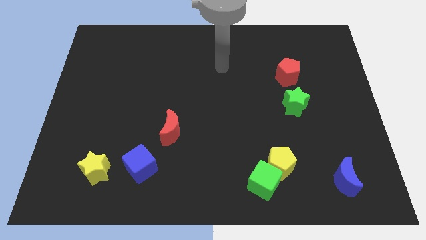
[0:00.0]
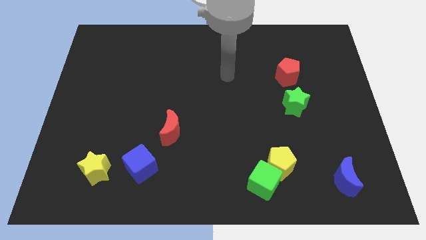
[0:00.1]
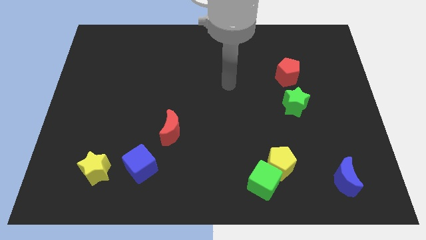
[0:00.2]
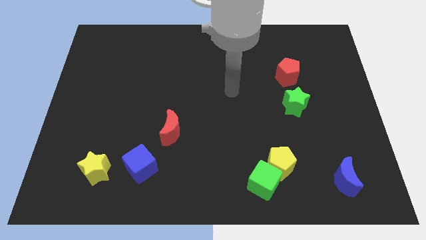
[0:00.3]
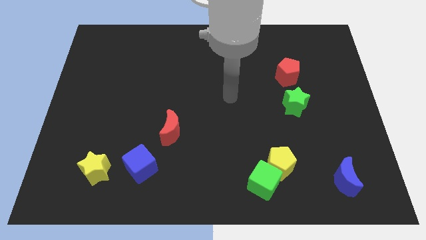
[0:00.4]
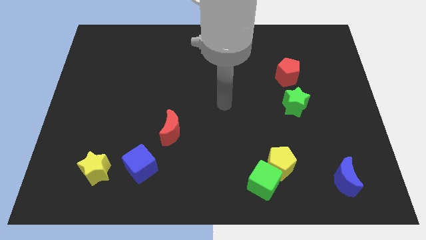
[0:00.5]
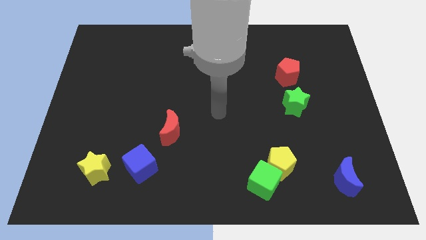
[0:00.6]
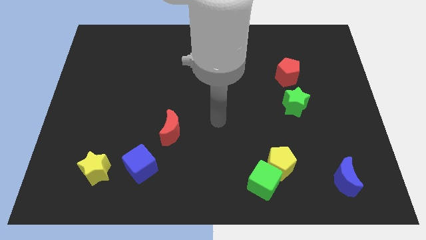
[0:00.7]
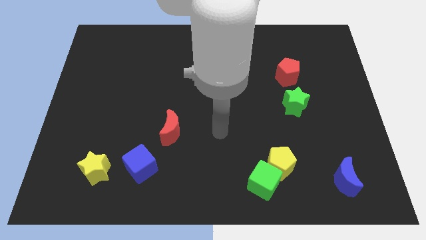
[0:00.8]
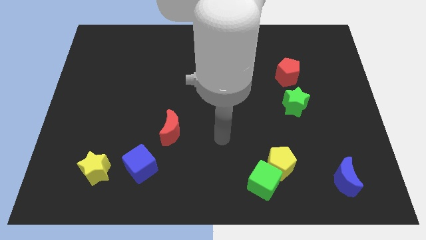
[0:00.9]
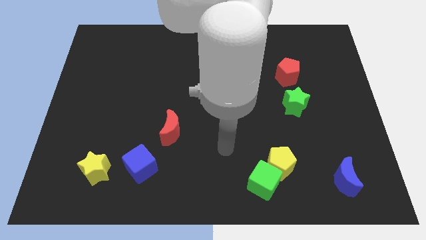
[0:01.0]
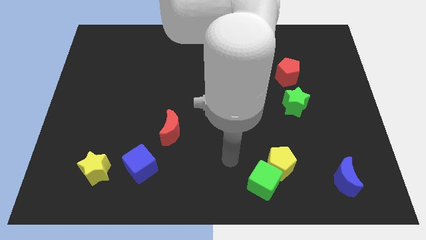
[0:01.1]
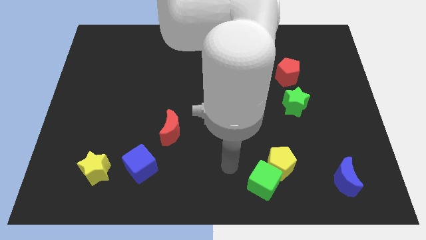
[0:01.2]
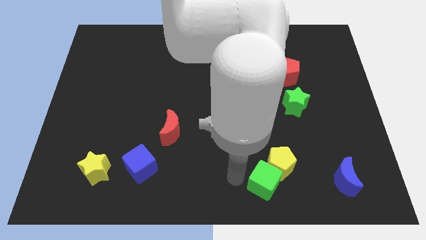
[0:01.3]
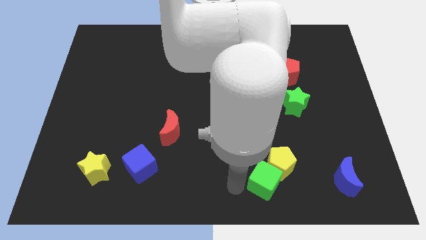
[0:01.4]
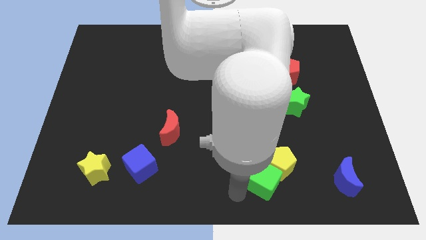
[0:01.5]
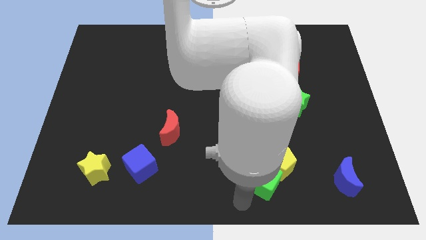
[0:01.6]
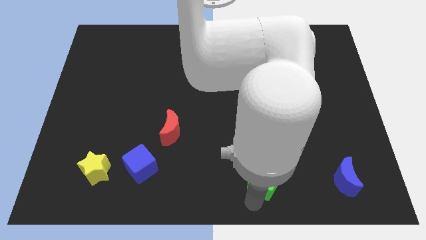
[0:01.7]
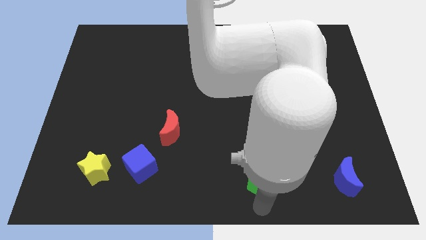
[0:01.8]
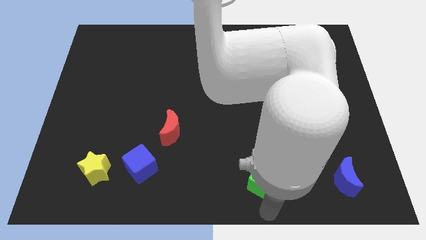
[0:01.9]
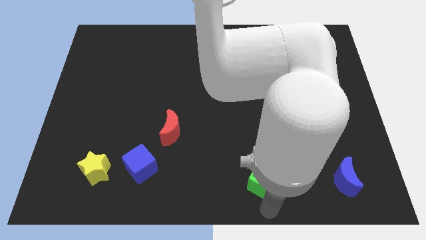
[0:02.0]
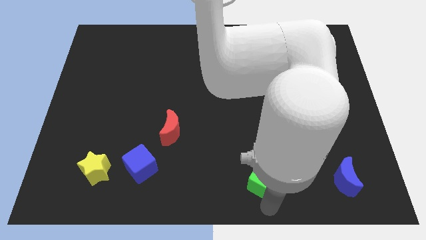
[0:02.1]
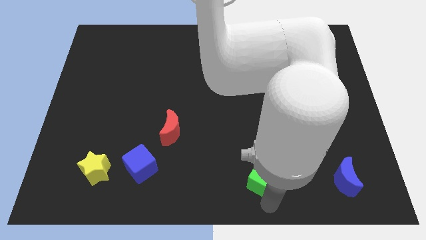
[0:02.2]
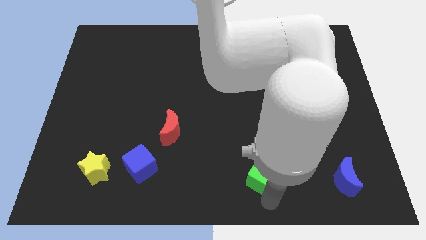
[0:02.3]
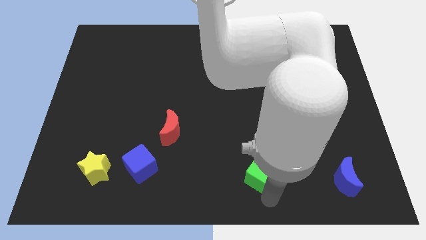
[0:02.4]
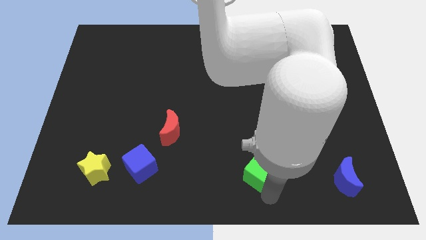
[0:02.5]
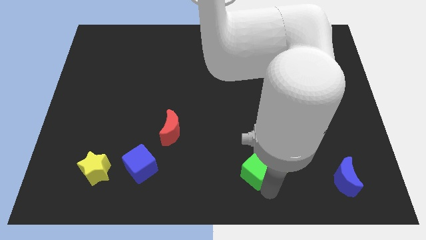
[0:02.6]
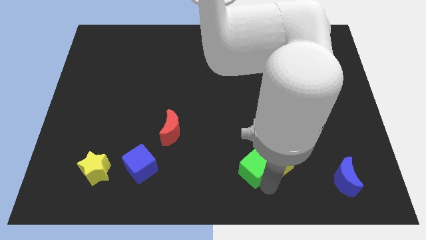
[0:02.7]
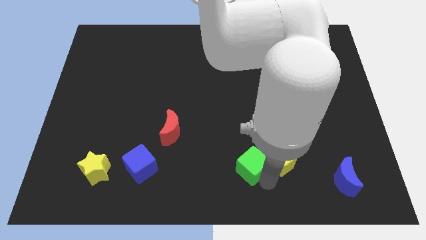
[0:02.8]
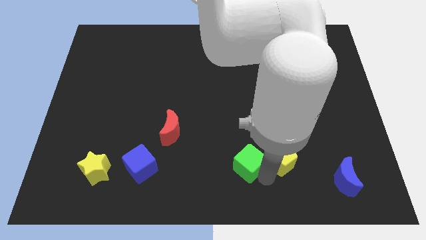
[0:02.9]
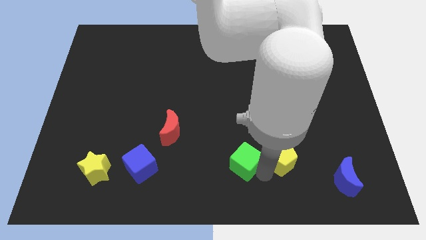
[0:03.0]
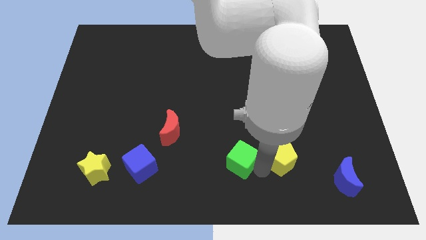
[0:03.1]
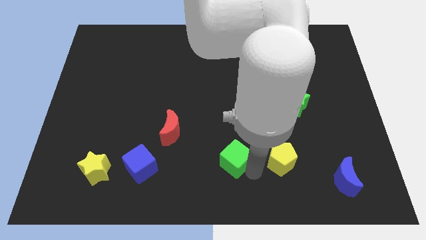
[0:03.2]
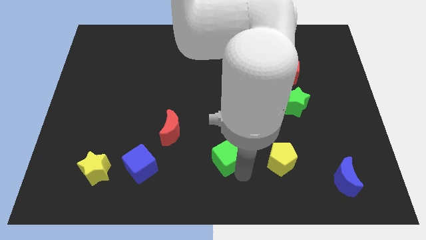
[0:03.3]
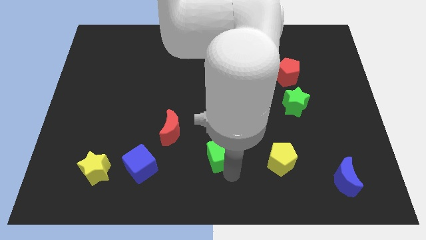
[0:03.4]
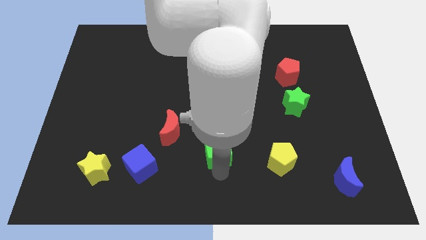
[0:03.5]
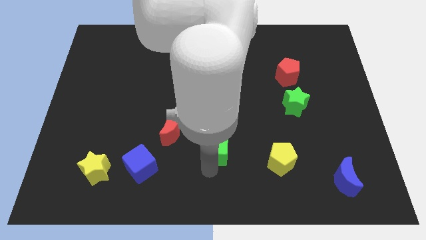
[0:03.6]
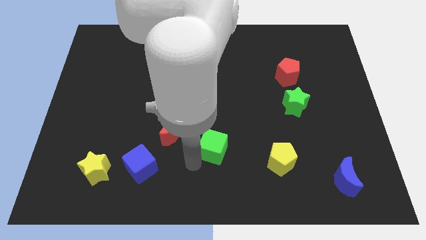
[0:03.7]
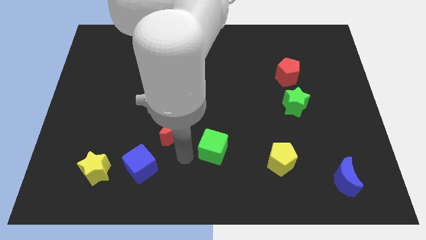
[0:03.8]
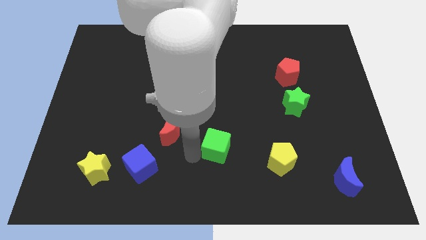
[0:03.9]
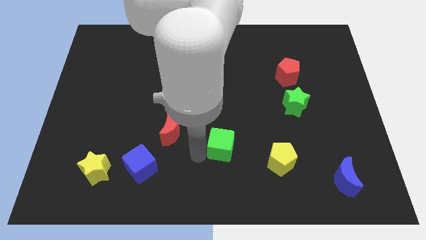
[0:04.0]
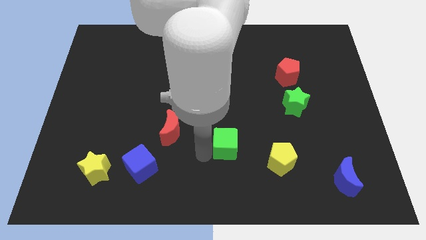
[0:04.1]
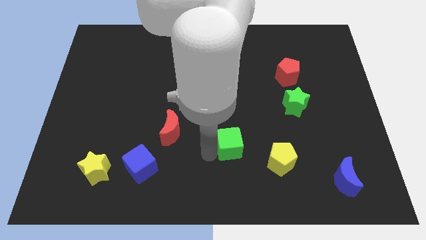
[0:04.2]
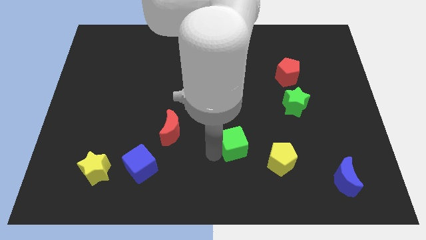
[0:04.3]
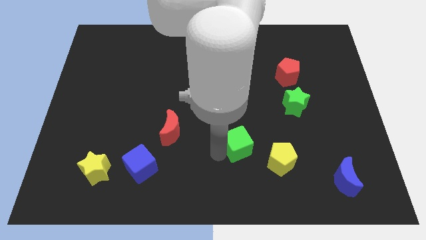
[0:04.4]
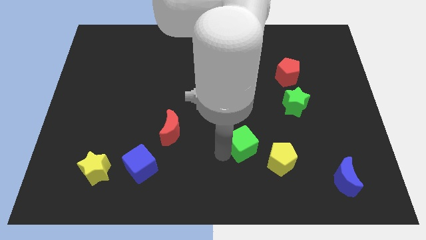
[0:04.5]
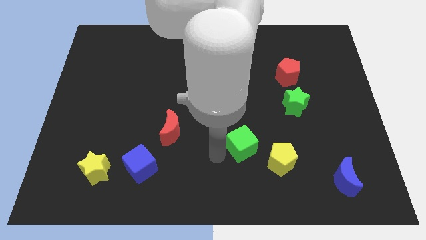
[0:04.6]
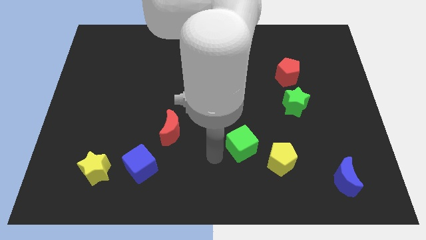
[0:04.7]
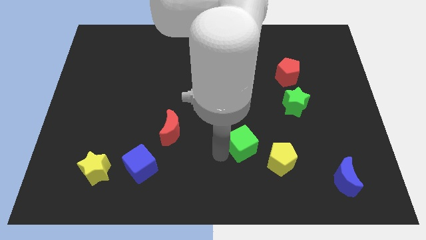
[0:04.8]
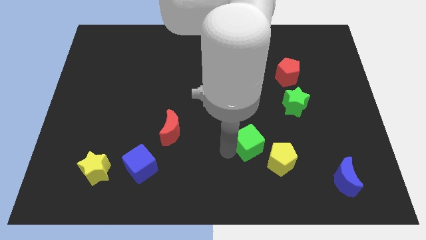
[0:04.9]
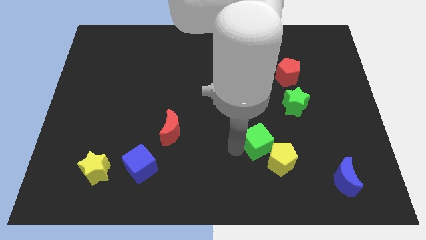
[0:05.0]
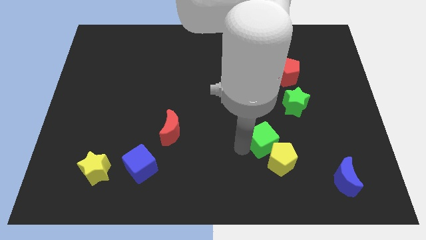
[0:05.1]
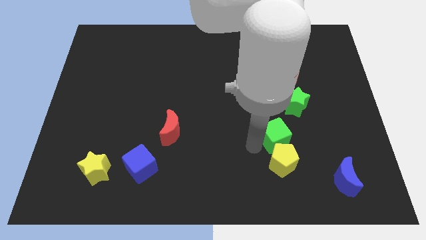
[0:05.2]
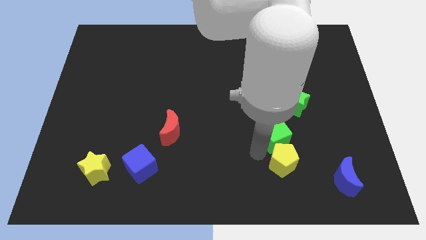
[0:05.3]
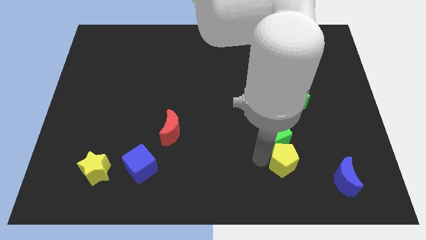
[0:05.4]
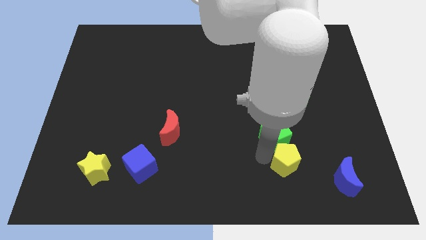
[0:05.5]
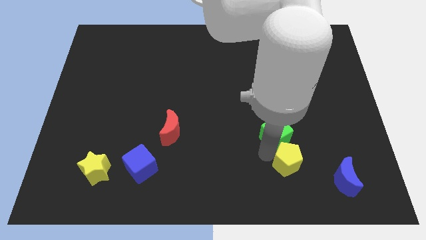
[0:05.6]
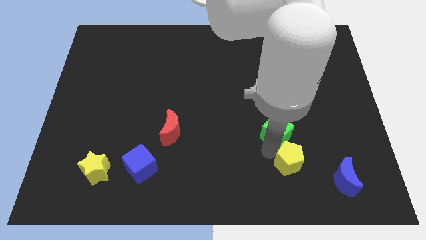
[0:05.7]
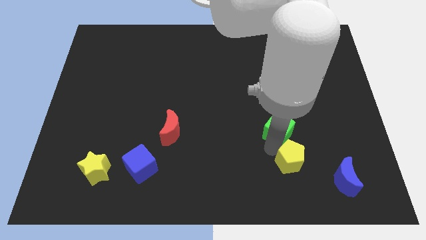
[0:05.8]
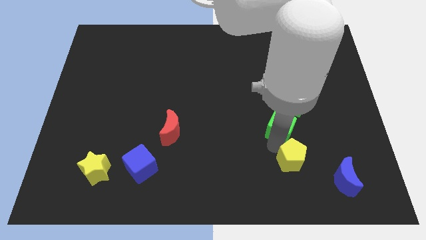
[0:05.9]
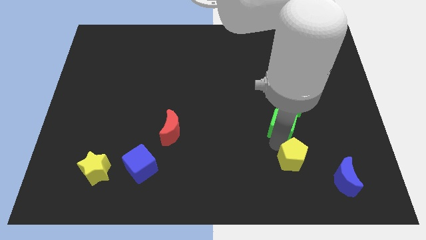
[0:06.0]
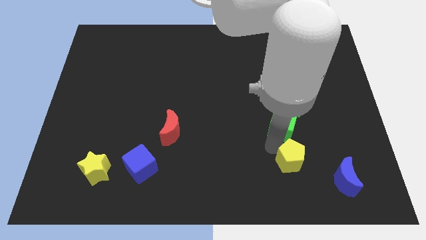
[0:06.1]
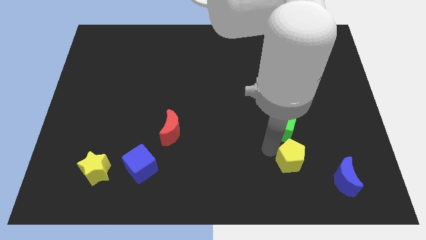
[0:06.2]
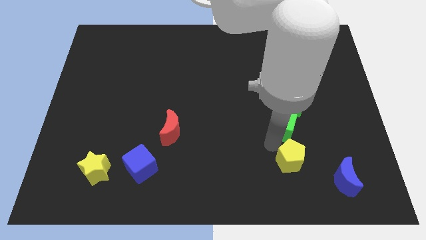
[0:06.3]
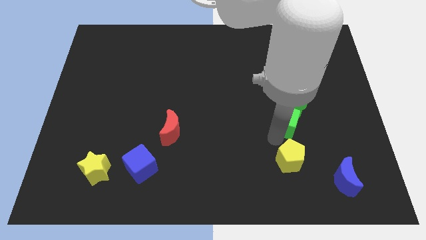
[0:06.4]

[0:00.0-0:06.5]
put the green cube to the bottom of the red pentagon
